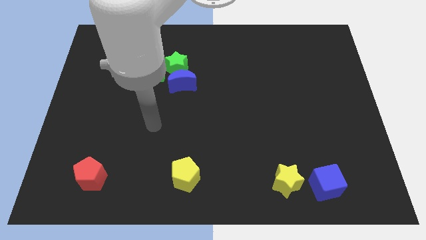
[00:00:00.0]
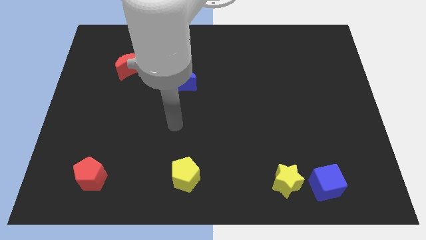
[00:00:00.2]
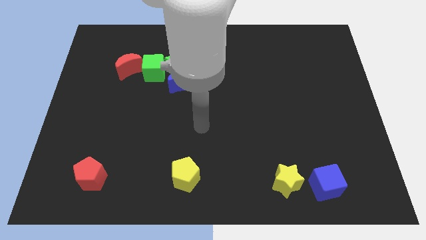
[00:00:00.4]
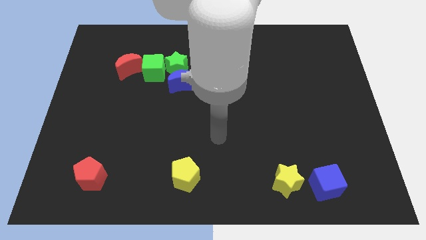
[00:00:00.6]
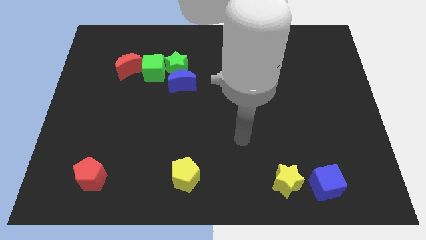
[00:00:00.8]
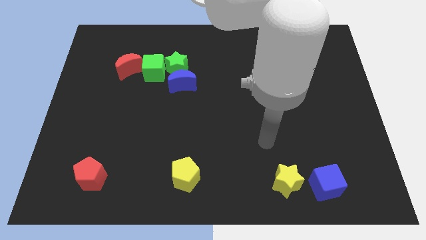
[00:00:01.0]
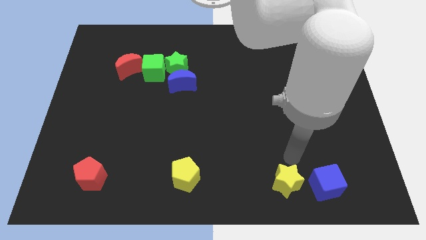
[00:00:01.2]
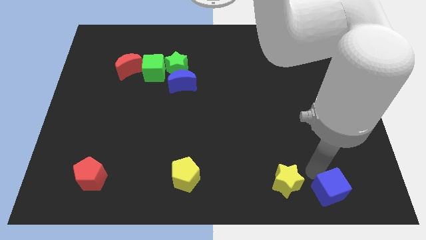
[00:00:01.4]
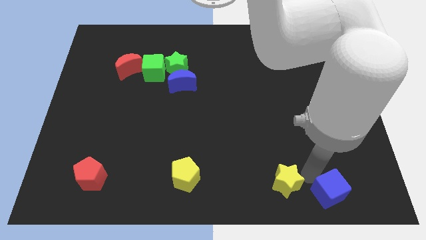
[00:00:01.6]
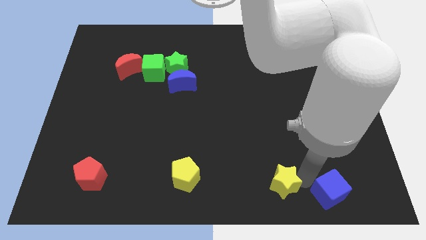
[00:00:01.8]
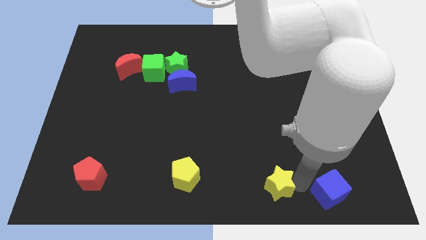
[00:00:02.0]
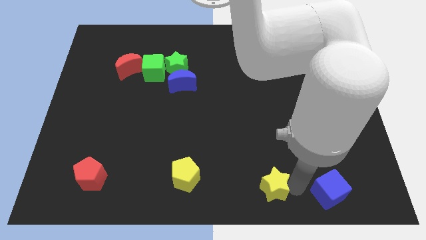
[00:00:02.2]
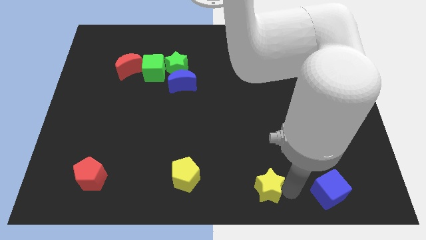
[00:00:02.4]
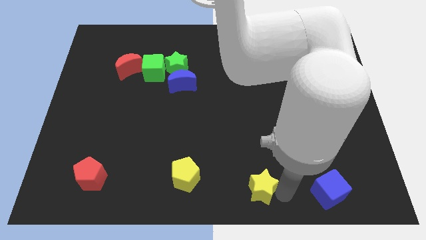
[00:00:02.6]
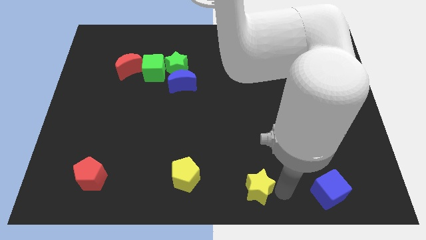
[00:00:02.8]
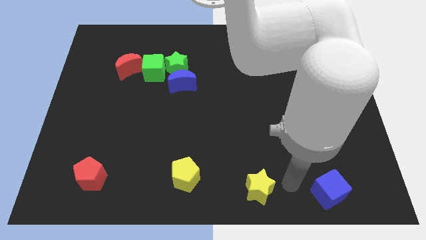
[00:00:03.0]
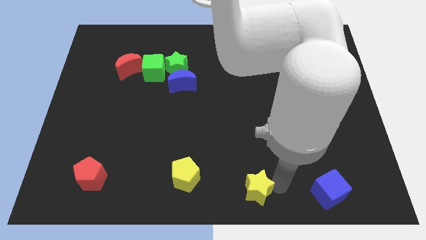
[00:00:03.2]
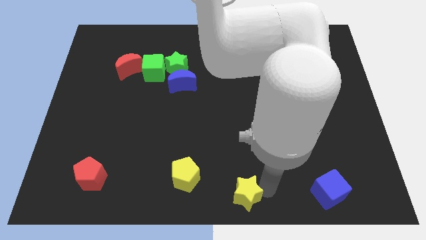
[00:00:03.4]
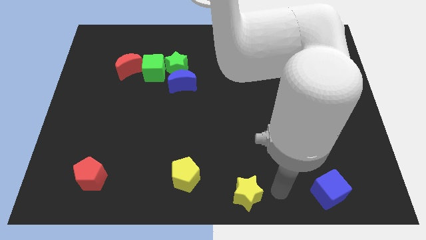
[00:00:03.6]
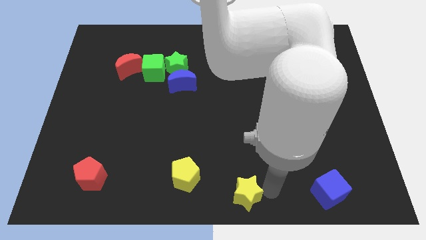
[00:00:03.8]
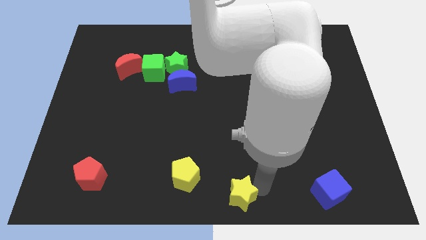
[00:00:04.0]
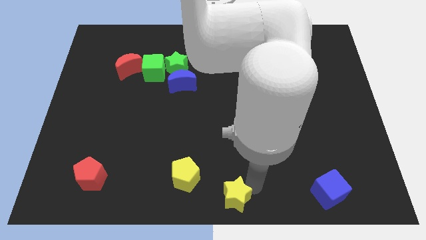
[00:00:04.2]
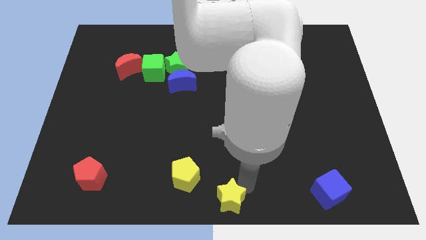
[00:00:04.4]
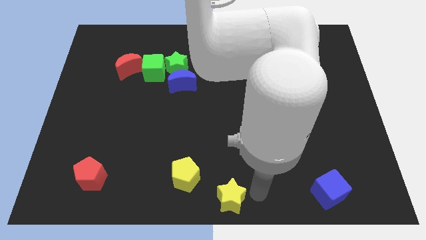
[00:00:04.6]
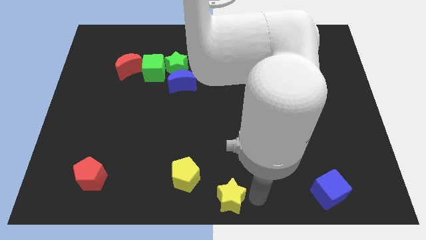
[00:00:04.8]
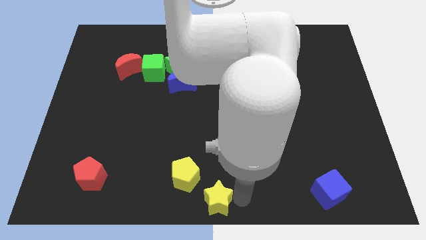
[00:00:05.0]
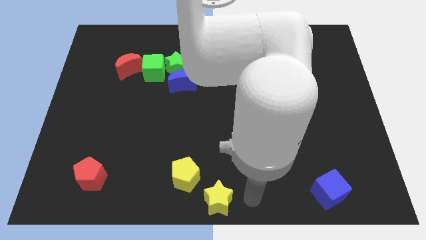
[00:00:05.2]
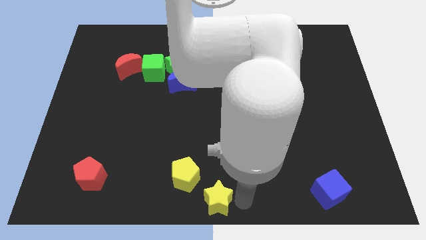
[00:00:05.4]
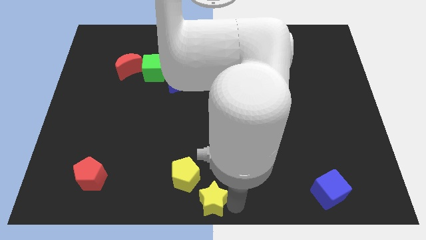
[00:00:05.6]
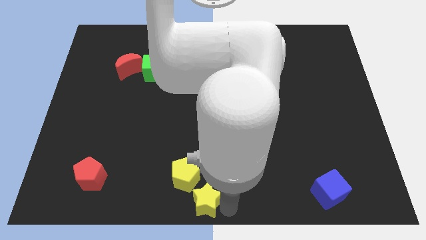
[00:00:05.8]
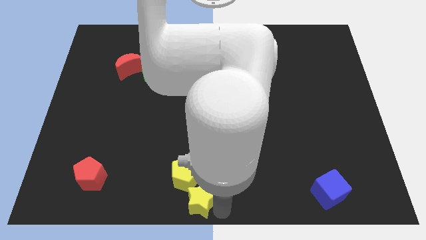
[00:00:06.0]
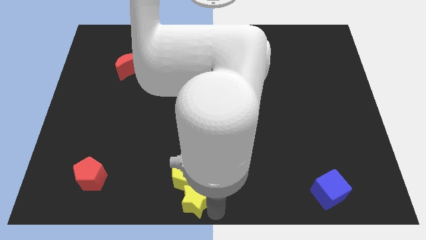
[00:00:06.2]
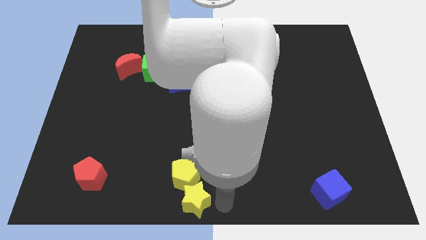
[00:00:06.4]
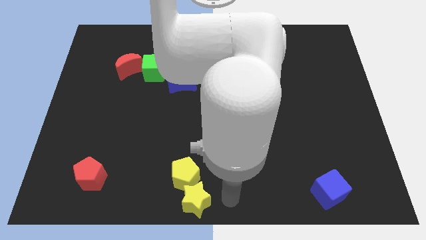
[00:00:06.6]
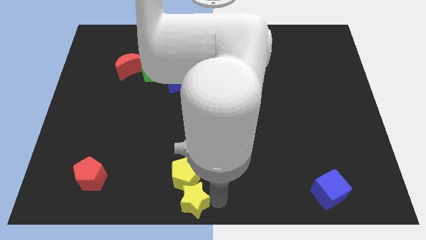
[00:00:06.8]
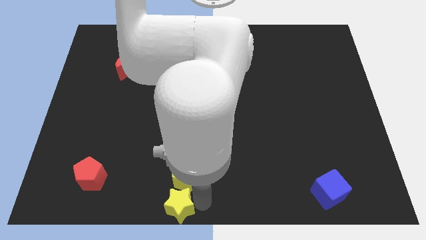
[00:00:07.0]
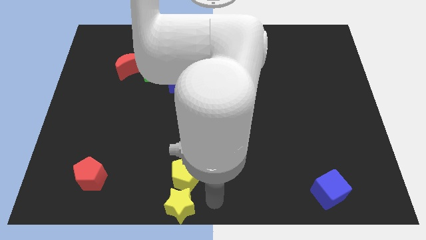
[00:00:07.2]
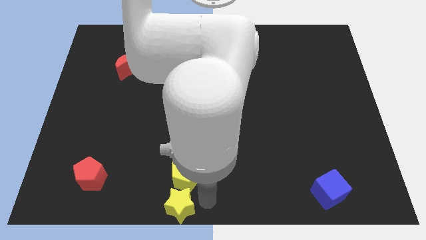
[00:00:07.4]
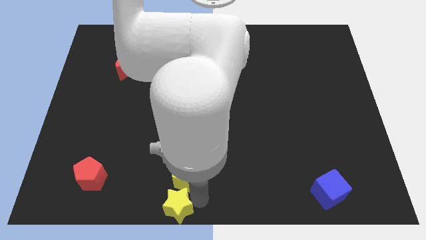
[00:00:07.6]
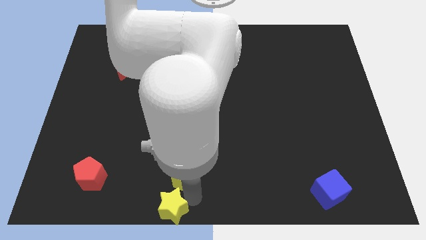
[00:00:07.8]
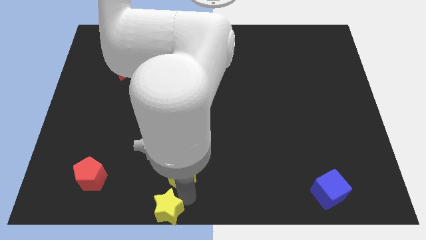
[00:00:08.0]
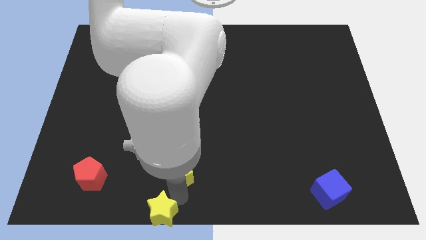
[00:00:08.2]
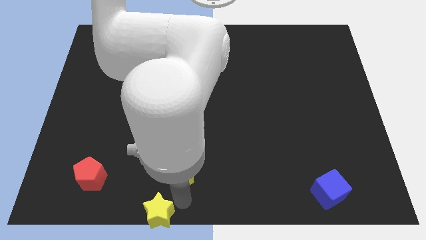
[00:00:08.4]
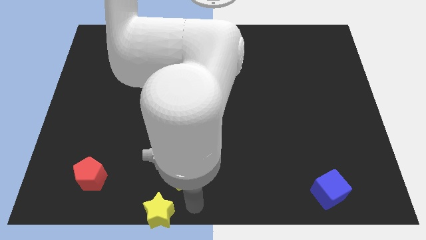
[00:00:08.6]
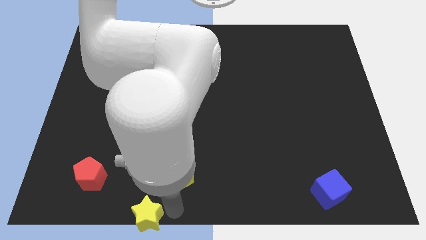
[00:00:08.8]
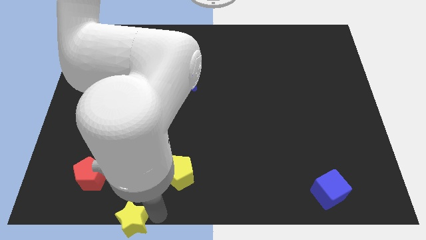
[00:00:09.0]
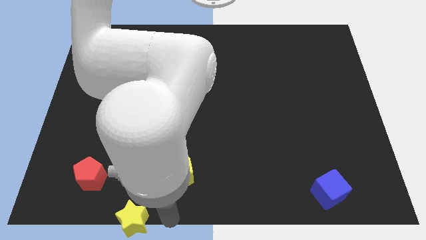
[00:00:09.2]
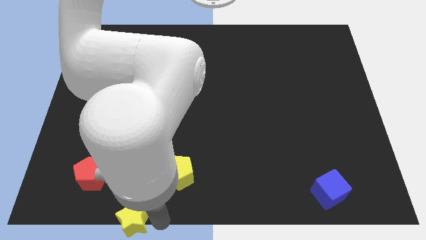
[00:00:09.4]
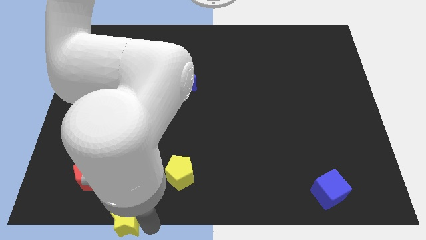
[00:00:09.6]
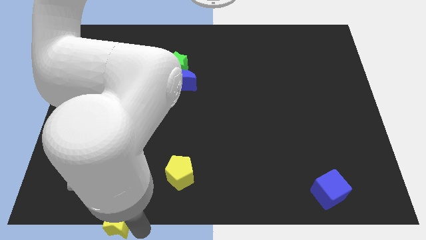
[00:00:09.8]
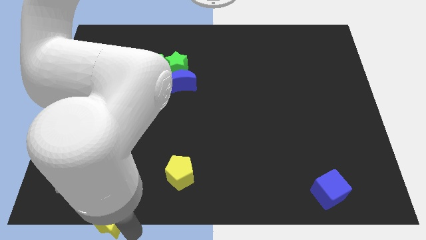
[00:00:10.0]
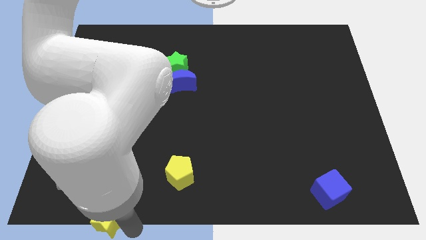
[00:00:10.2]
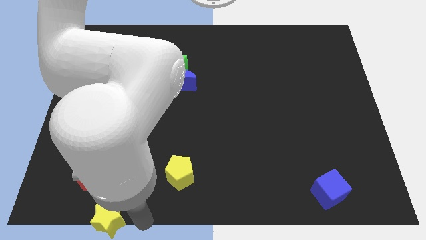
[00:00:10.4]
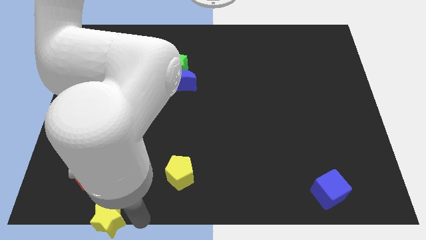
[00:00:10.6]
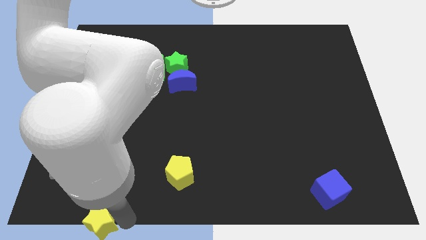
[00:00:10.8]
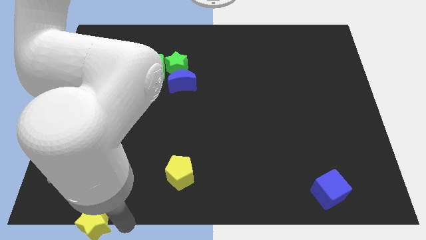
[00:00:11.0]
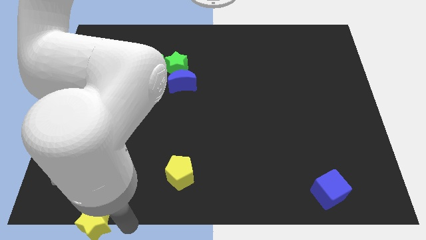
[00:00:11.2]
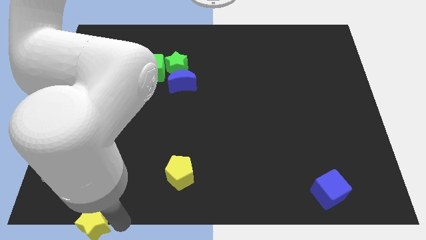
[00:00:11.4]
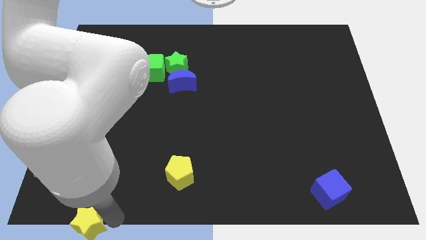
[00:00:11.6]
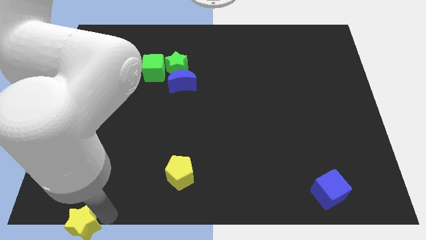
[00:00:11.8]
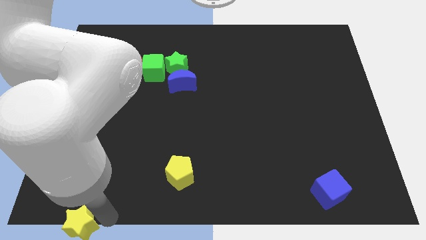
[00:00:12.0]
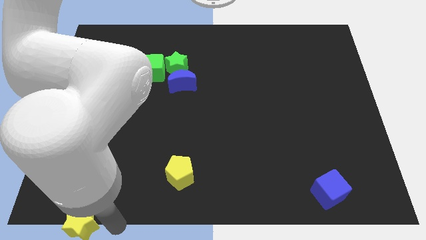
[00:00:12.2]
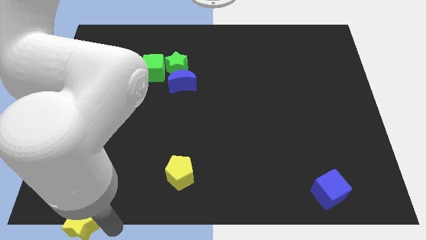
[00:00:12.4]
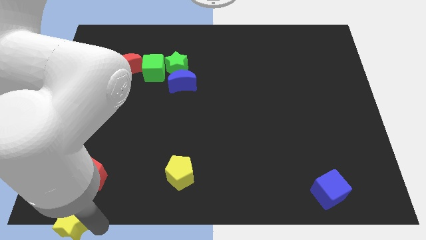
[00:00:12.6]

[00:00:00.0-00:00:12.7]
move the yellow star to the bottom left
